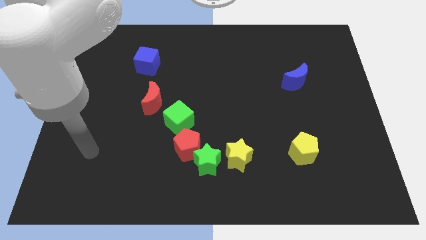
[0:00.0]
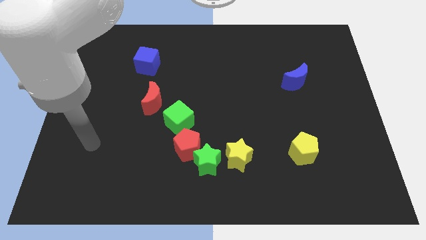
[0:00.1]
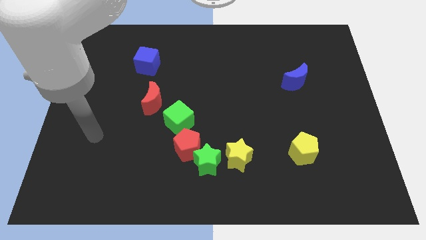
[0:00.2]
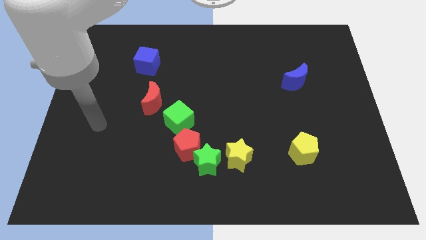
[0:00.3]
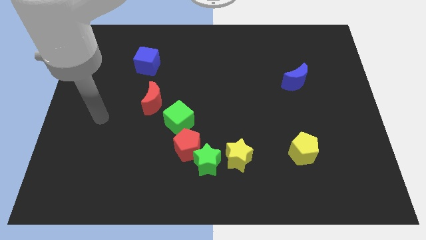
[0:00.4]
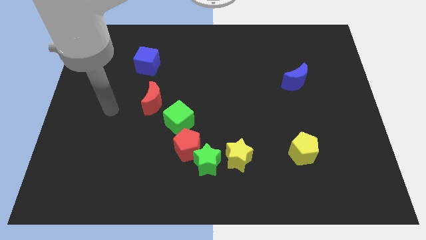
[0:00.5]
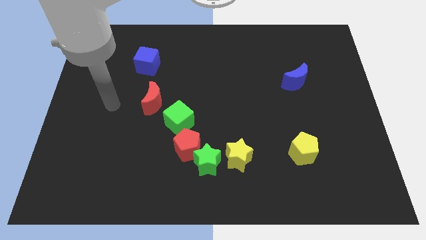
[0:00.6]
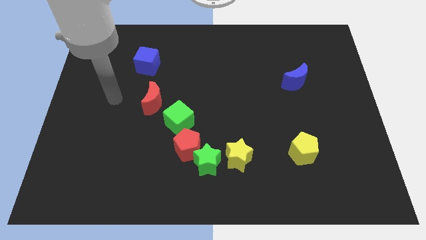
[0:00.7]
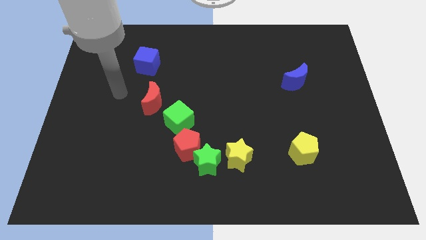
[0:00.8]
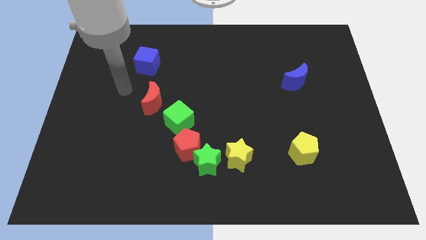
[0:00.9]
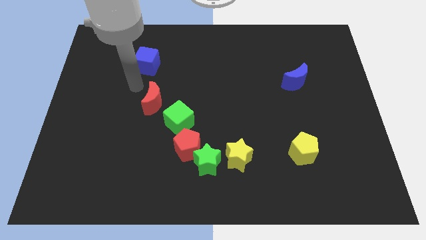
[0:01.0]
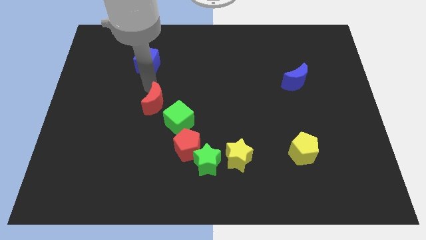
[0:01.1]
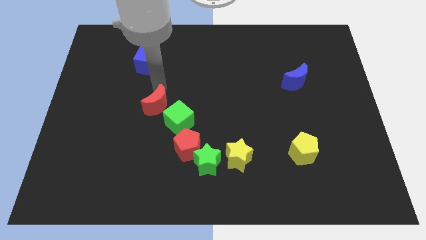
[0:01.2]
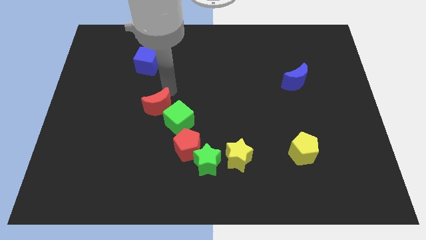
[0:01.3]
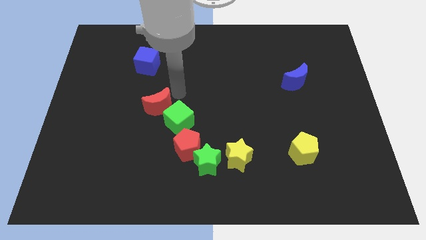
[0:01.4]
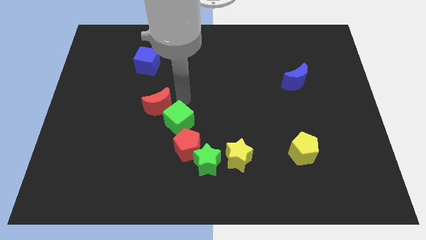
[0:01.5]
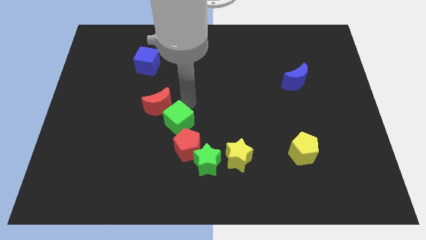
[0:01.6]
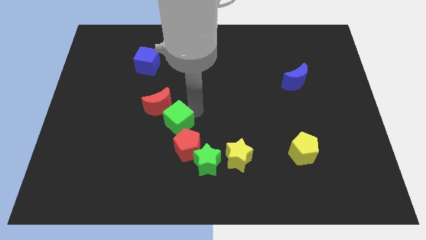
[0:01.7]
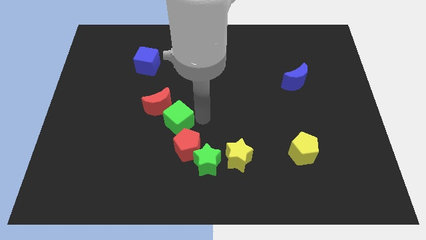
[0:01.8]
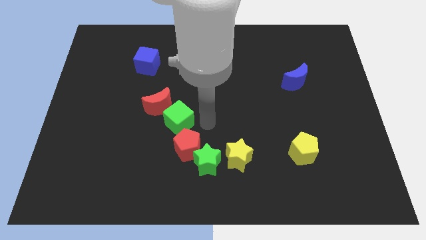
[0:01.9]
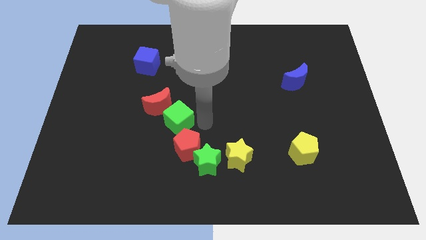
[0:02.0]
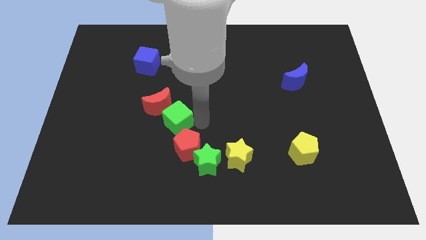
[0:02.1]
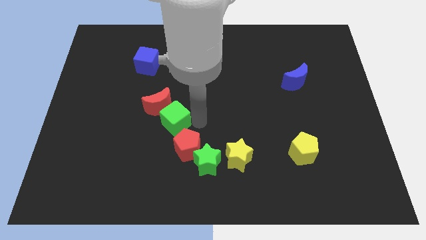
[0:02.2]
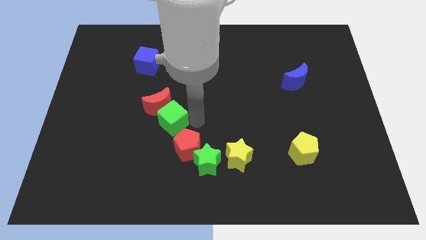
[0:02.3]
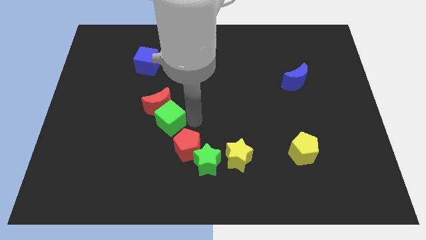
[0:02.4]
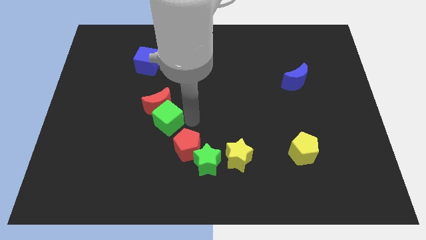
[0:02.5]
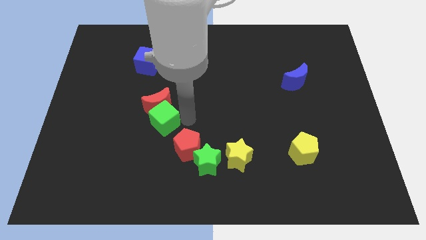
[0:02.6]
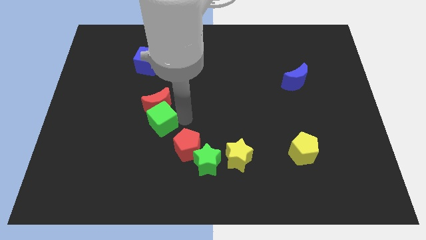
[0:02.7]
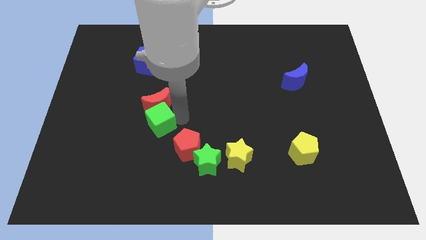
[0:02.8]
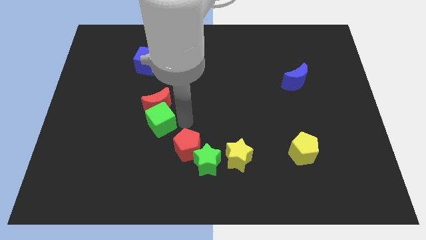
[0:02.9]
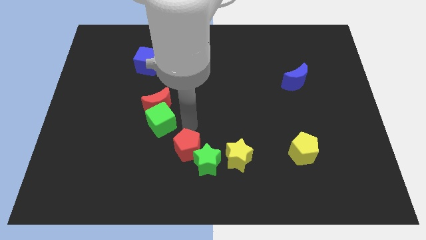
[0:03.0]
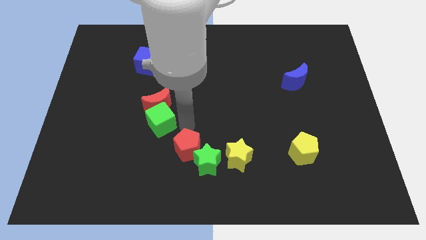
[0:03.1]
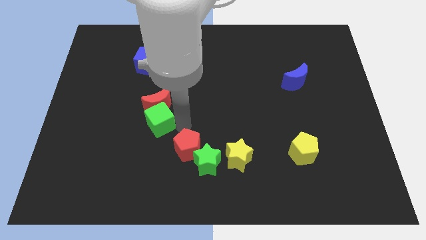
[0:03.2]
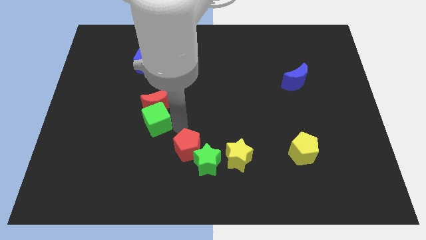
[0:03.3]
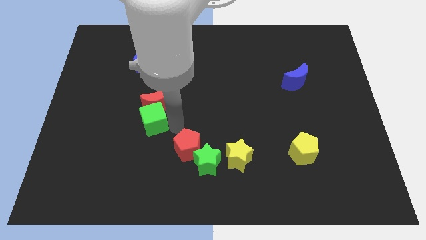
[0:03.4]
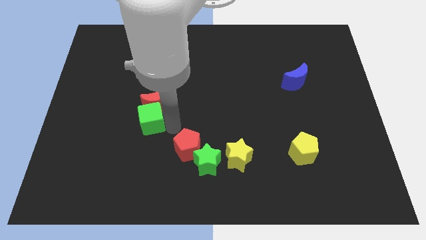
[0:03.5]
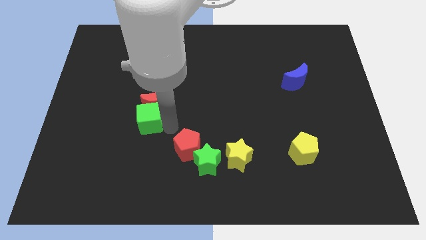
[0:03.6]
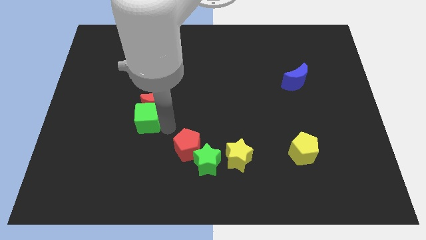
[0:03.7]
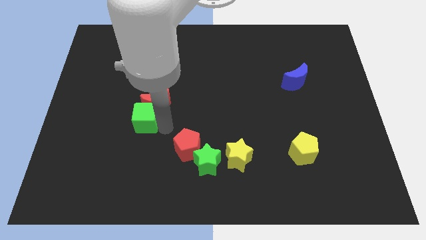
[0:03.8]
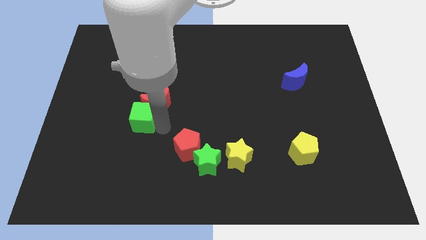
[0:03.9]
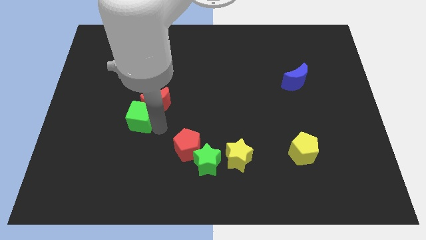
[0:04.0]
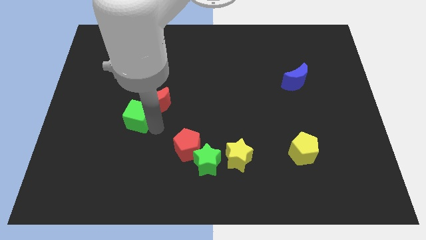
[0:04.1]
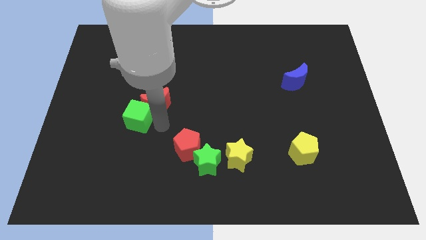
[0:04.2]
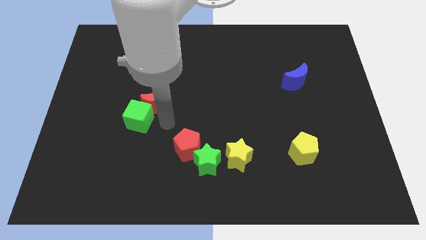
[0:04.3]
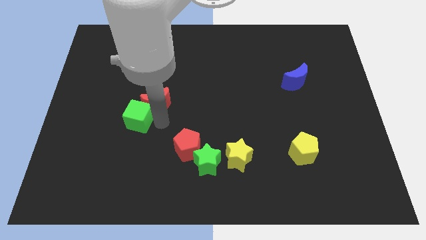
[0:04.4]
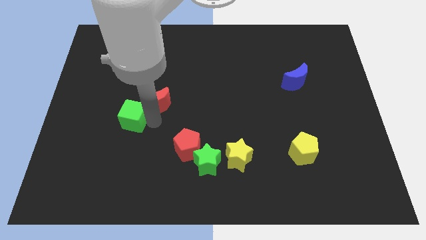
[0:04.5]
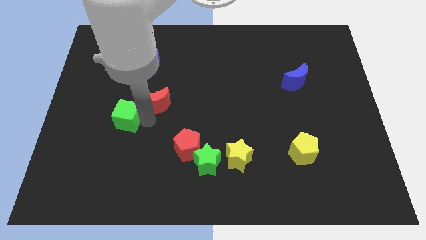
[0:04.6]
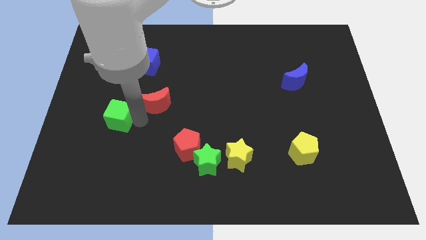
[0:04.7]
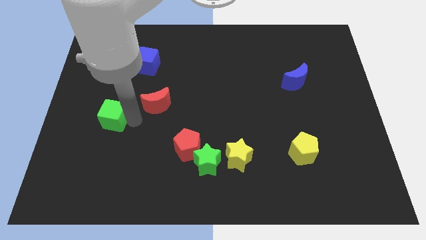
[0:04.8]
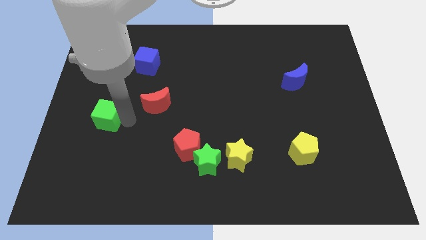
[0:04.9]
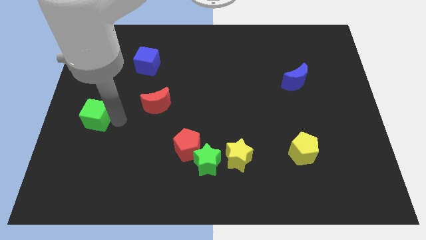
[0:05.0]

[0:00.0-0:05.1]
push the green cube to the left side

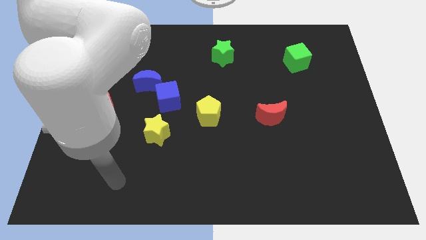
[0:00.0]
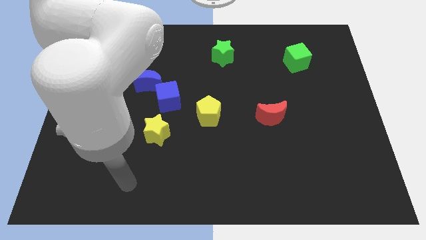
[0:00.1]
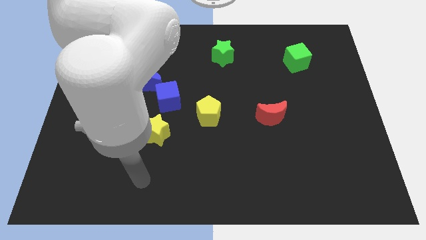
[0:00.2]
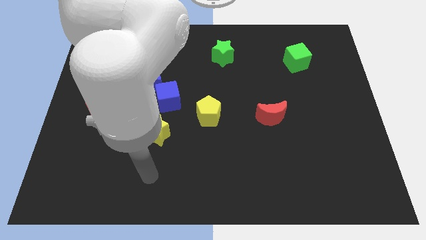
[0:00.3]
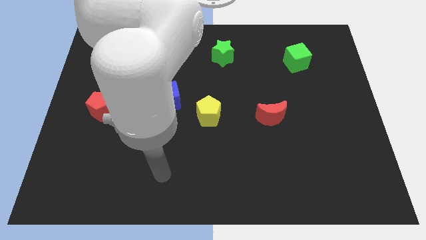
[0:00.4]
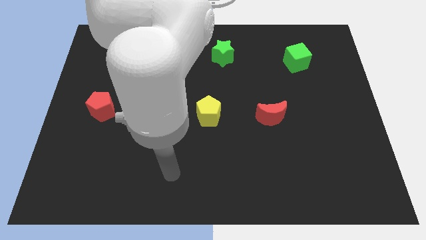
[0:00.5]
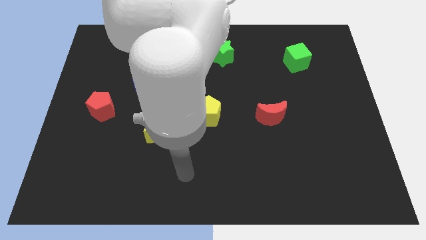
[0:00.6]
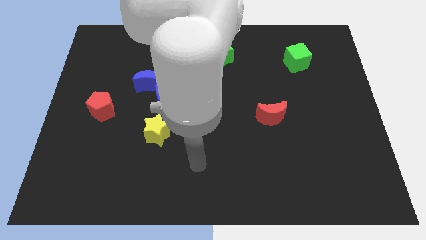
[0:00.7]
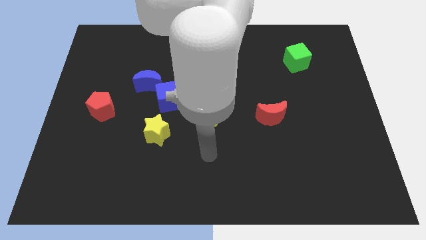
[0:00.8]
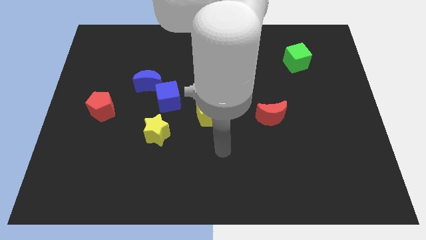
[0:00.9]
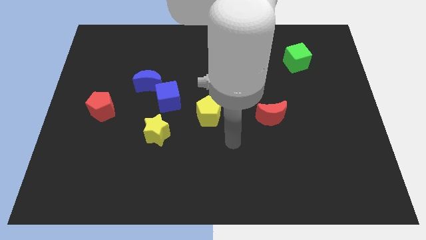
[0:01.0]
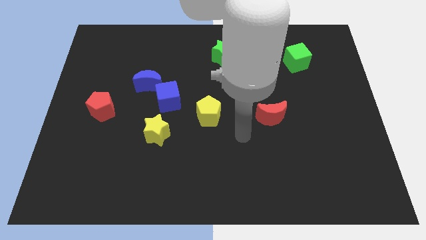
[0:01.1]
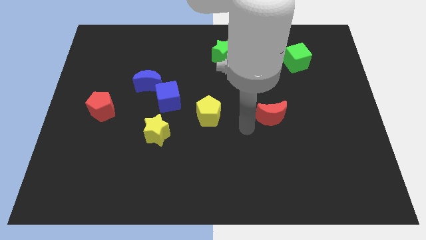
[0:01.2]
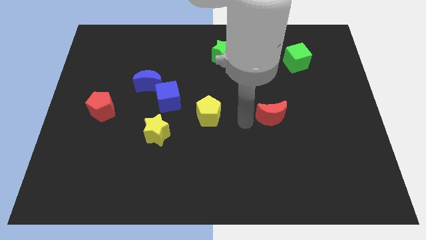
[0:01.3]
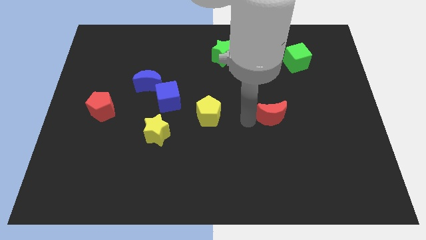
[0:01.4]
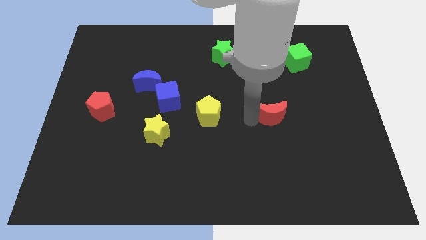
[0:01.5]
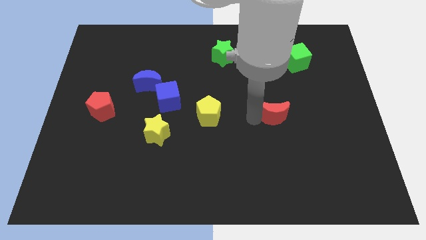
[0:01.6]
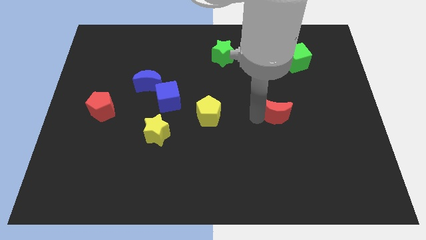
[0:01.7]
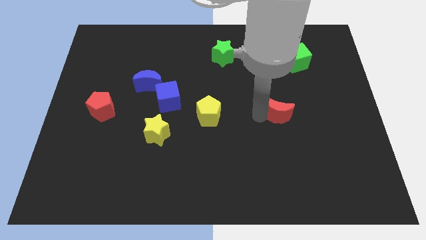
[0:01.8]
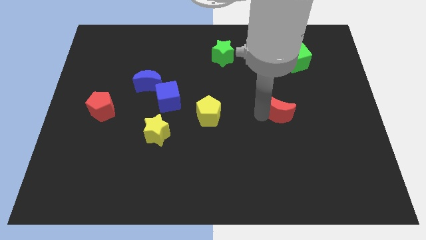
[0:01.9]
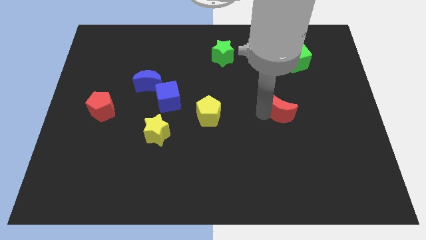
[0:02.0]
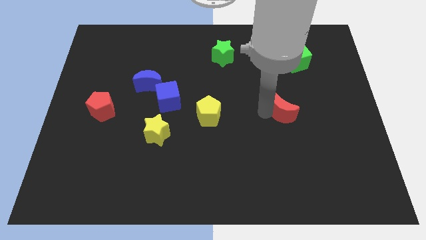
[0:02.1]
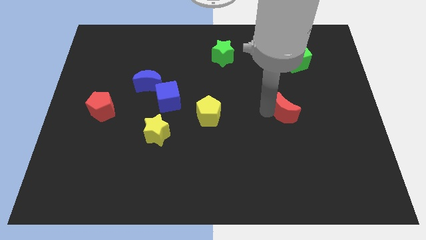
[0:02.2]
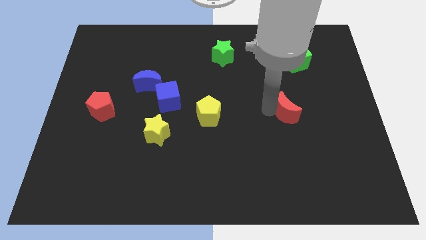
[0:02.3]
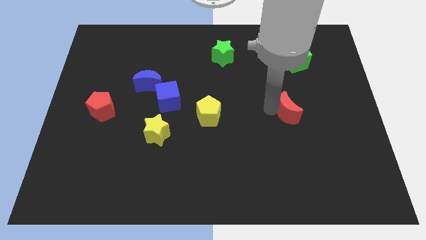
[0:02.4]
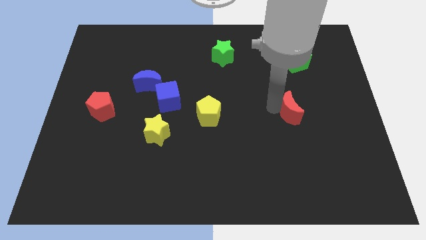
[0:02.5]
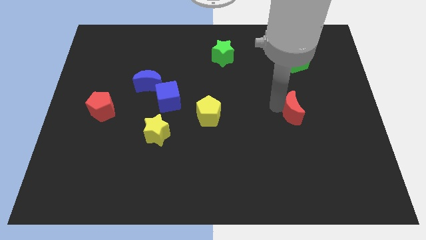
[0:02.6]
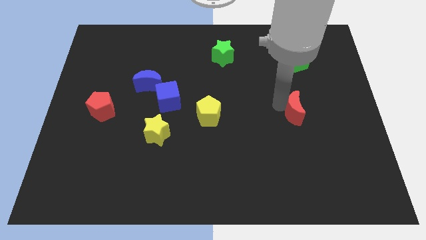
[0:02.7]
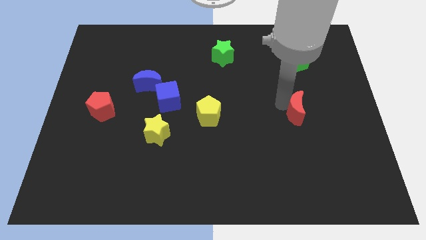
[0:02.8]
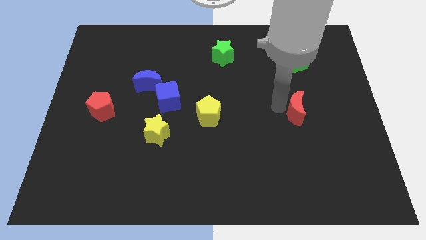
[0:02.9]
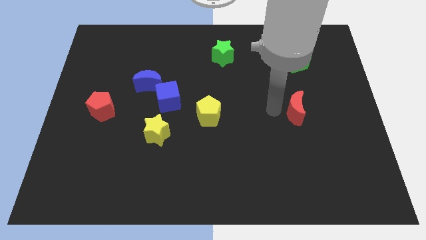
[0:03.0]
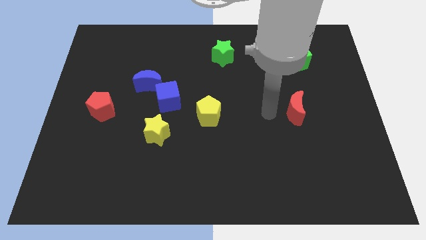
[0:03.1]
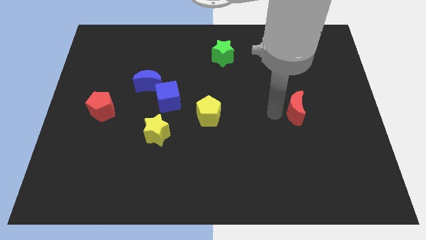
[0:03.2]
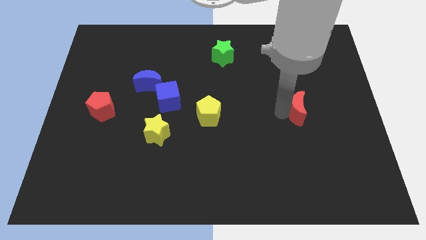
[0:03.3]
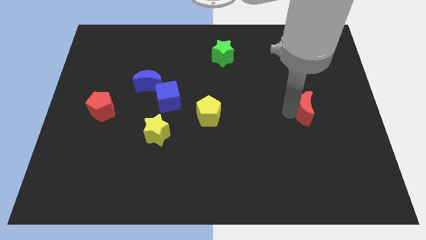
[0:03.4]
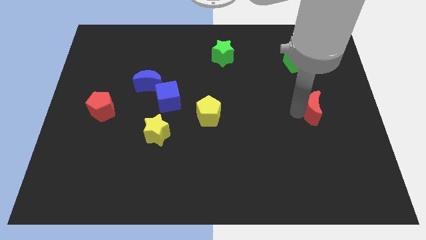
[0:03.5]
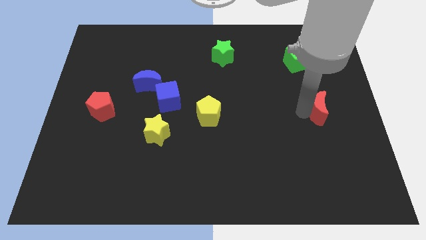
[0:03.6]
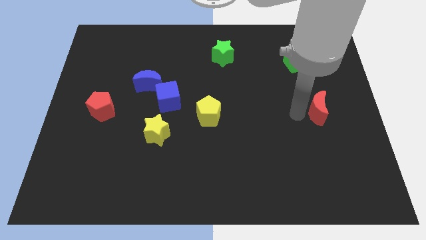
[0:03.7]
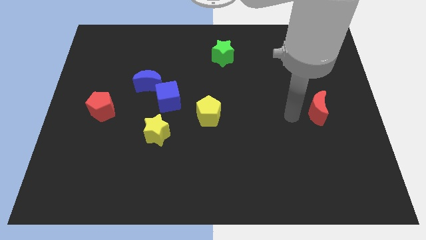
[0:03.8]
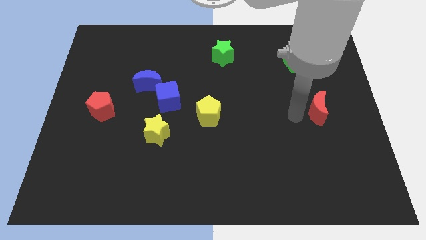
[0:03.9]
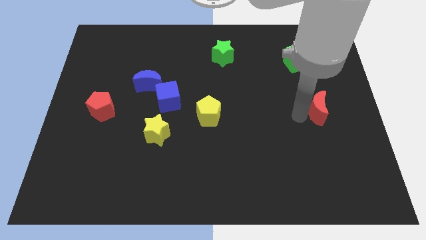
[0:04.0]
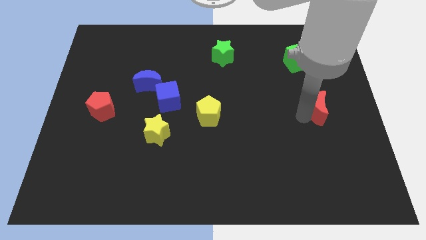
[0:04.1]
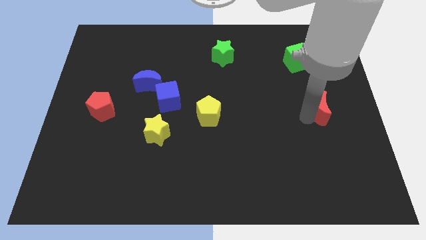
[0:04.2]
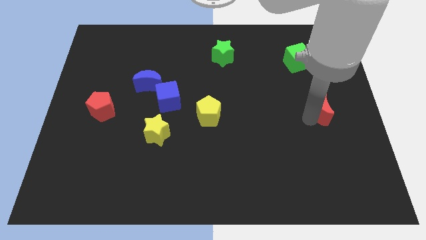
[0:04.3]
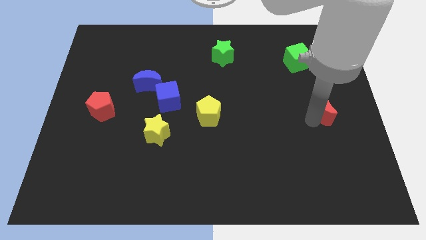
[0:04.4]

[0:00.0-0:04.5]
put the red moon to the right side of the board
